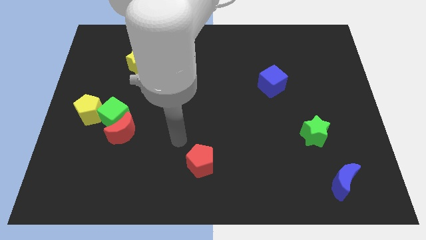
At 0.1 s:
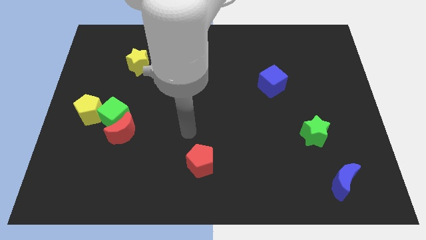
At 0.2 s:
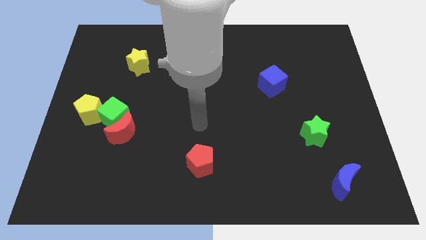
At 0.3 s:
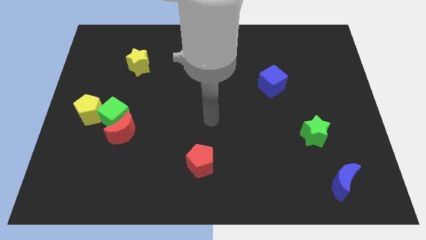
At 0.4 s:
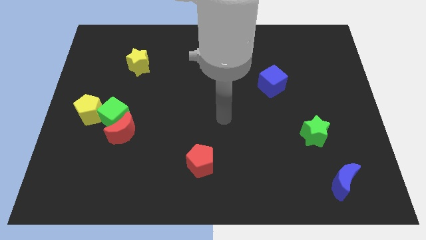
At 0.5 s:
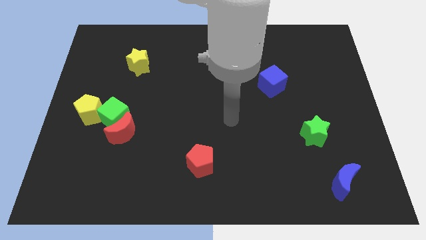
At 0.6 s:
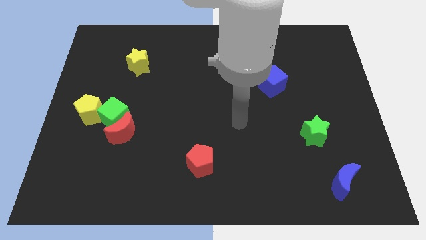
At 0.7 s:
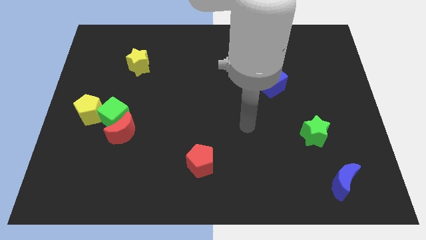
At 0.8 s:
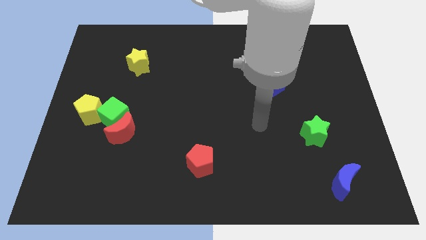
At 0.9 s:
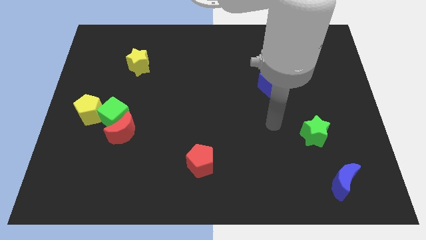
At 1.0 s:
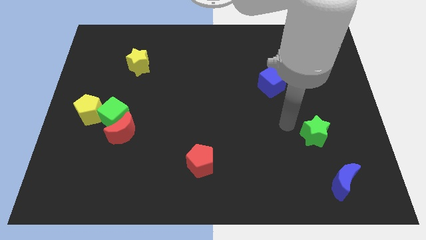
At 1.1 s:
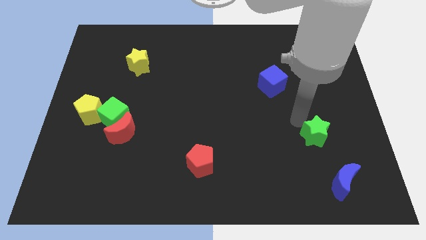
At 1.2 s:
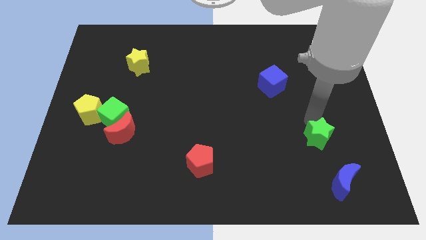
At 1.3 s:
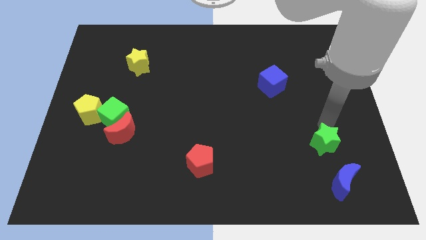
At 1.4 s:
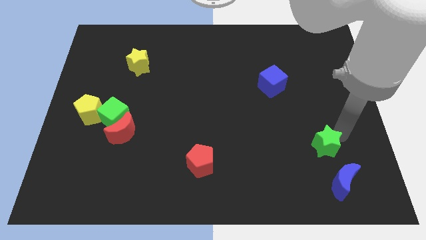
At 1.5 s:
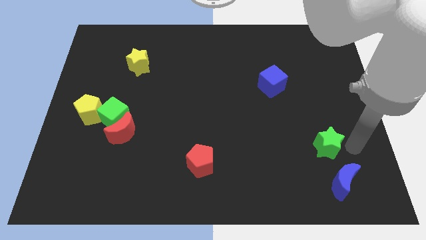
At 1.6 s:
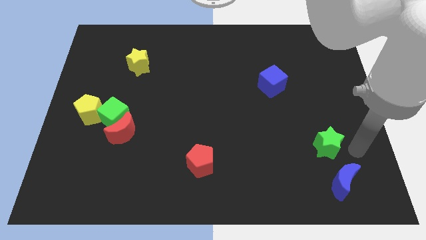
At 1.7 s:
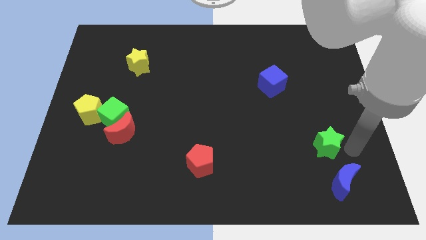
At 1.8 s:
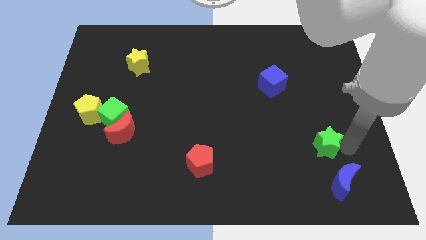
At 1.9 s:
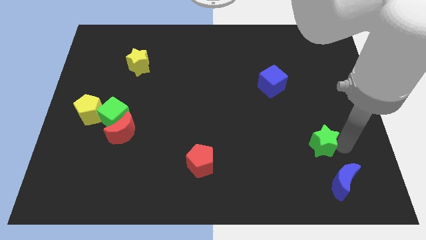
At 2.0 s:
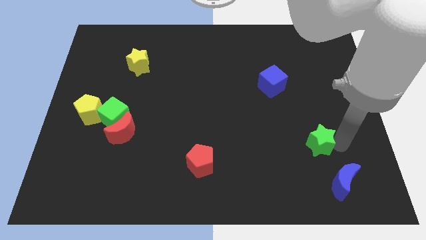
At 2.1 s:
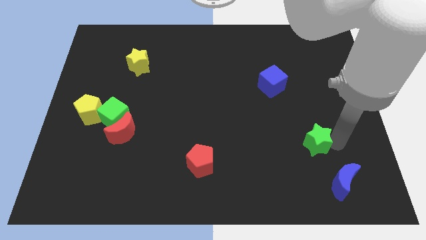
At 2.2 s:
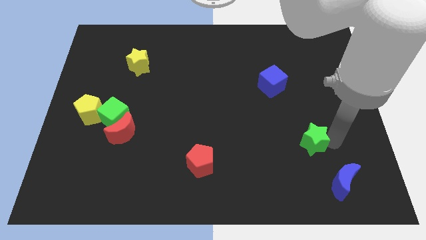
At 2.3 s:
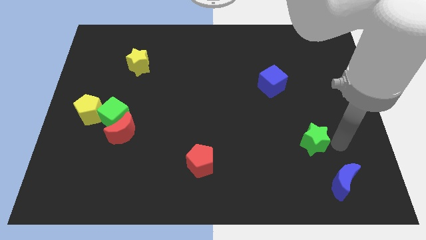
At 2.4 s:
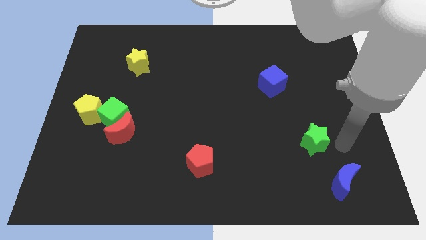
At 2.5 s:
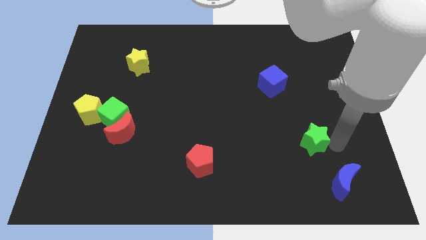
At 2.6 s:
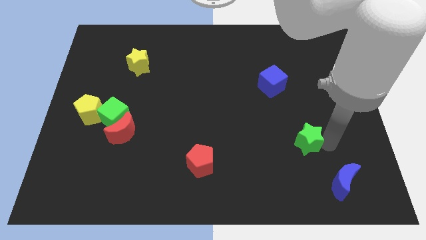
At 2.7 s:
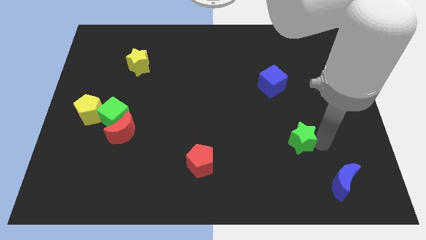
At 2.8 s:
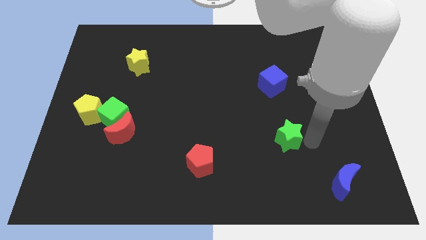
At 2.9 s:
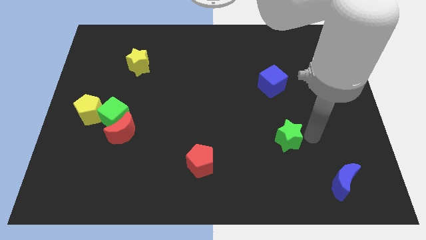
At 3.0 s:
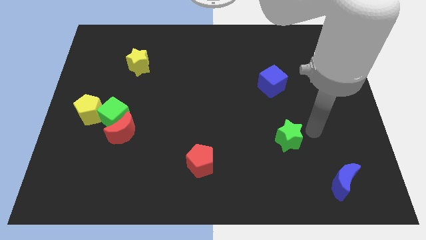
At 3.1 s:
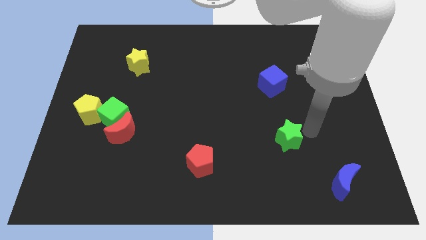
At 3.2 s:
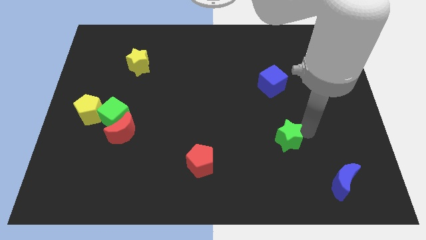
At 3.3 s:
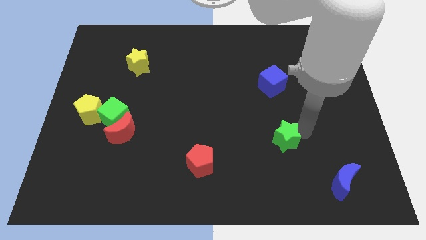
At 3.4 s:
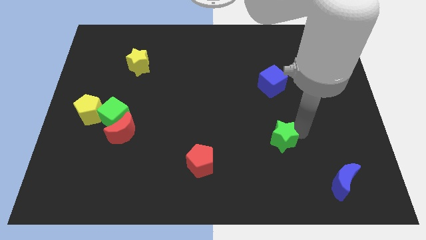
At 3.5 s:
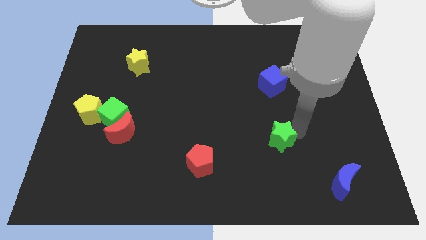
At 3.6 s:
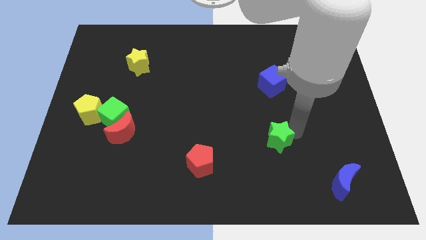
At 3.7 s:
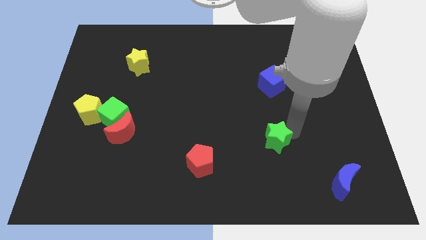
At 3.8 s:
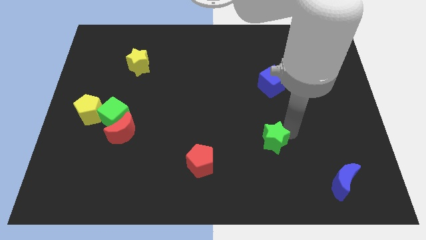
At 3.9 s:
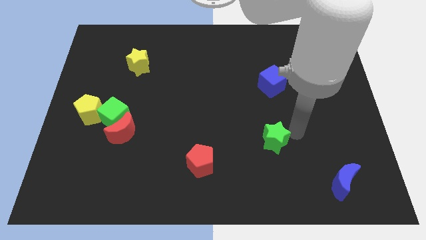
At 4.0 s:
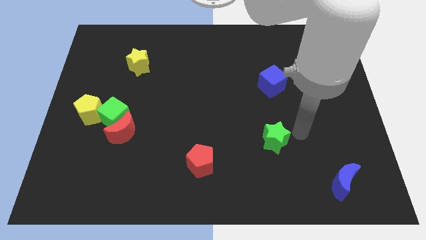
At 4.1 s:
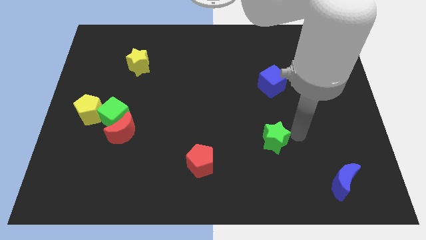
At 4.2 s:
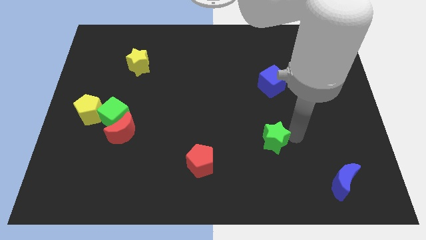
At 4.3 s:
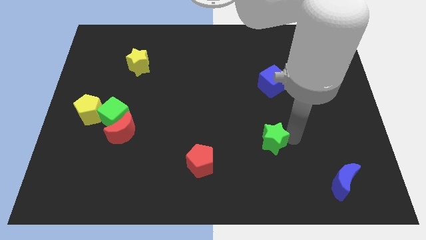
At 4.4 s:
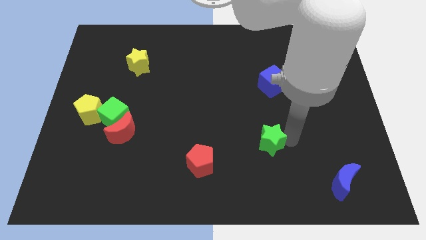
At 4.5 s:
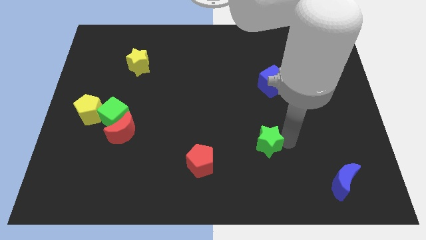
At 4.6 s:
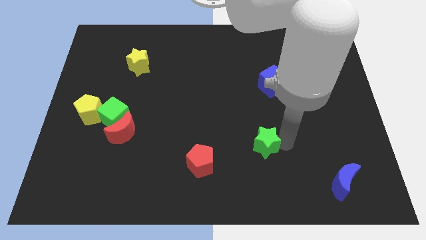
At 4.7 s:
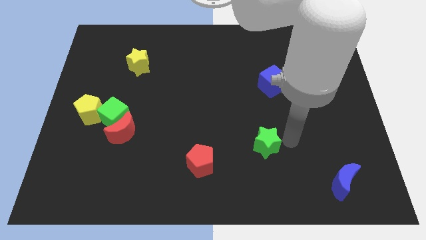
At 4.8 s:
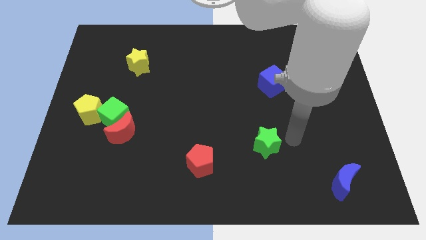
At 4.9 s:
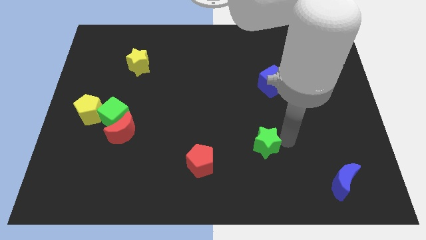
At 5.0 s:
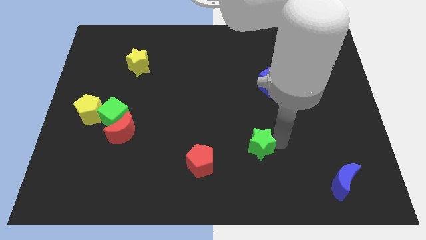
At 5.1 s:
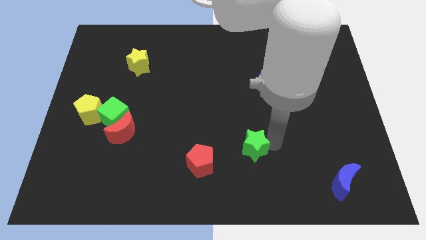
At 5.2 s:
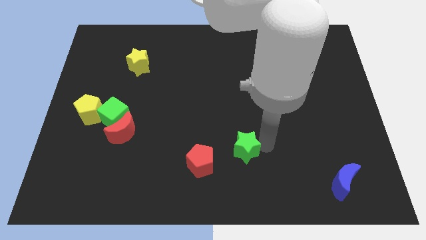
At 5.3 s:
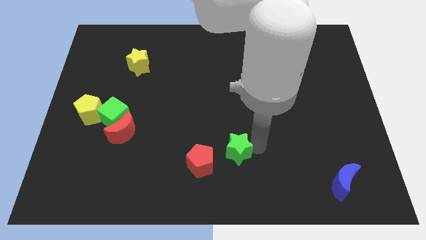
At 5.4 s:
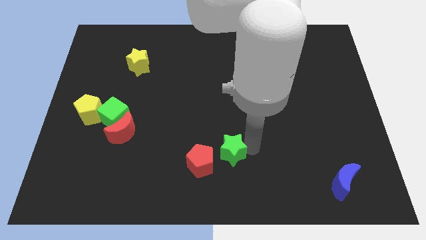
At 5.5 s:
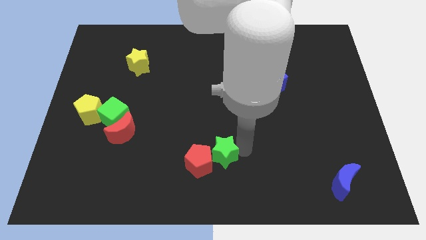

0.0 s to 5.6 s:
put the green star towards the red pentagon

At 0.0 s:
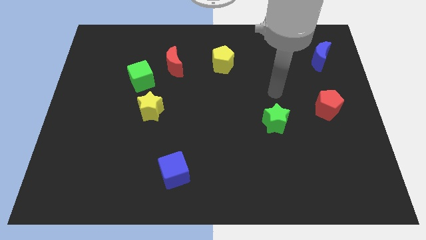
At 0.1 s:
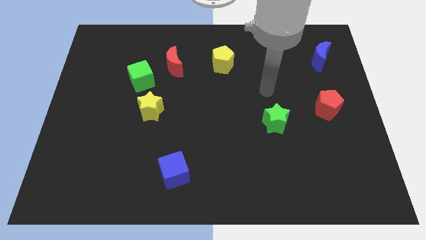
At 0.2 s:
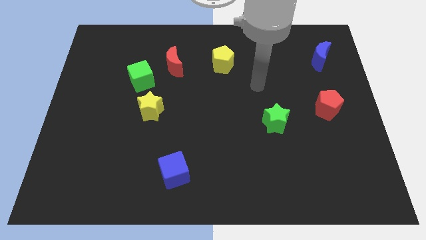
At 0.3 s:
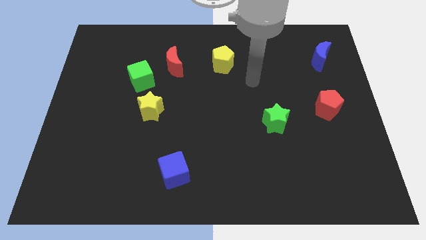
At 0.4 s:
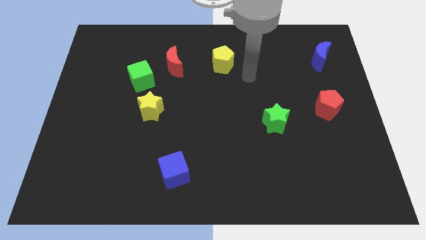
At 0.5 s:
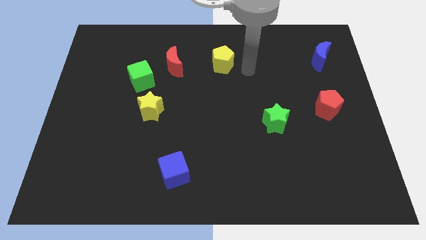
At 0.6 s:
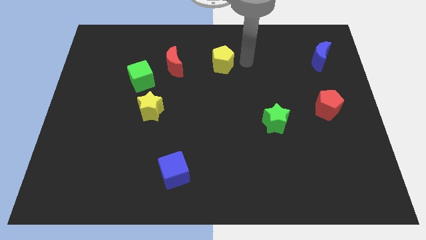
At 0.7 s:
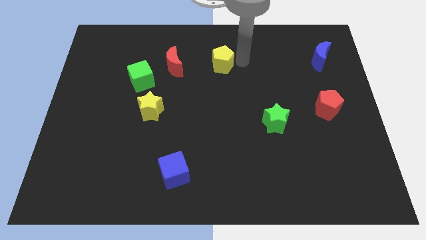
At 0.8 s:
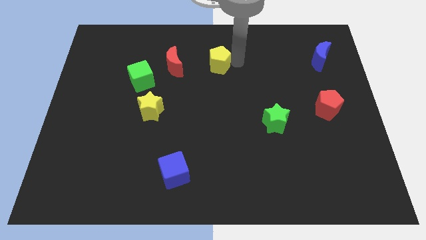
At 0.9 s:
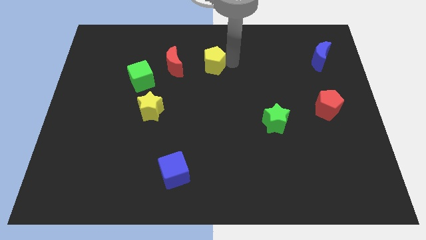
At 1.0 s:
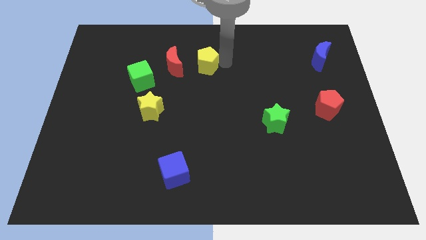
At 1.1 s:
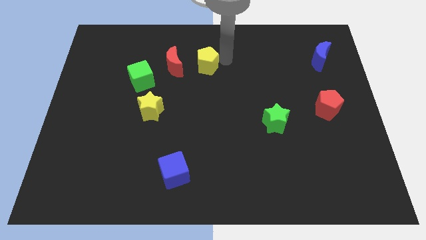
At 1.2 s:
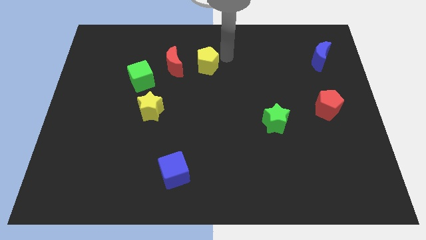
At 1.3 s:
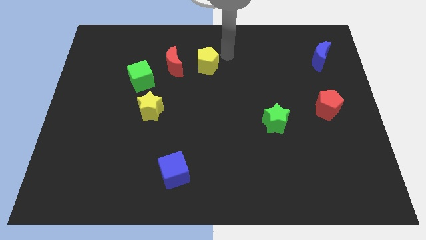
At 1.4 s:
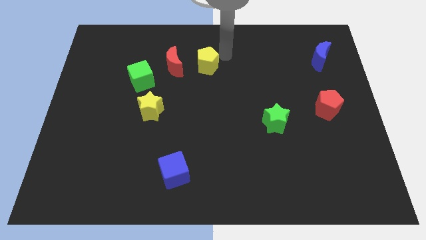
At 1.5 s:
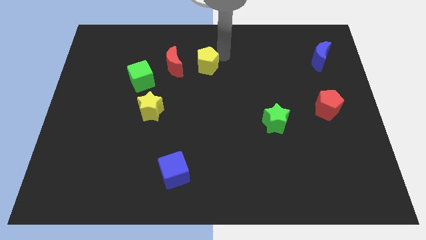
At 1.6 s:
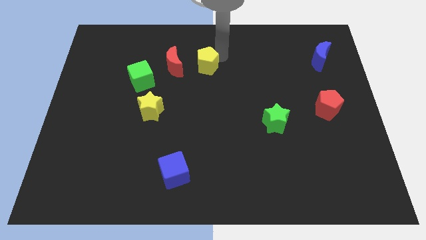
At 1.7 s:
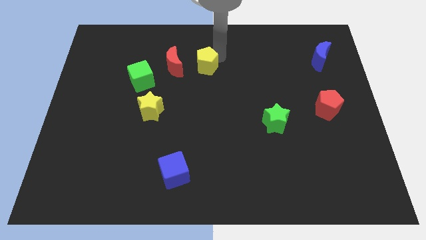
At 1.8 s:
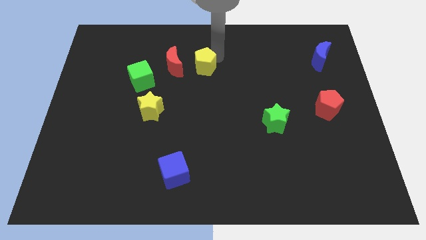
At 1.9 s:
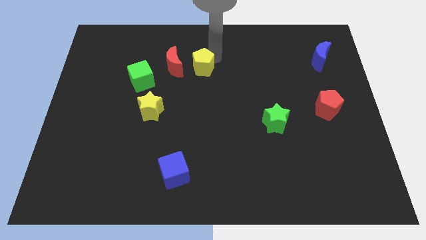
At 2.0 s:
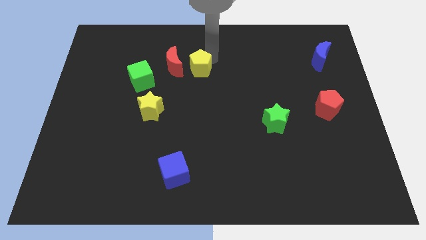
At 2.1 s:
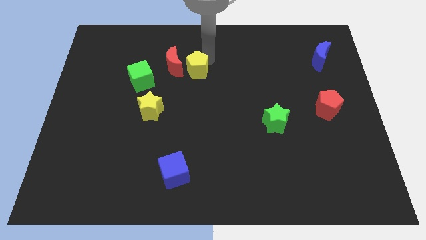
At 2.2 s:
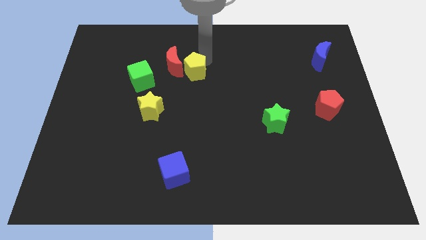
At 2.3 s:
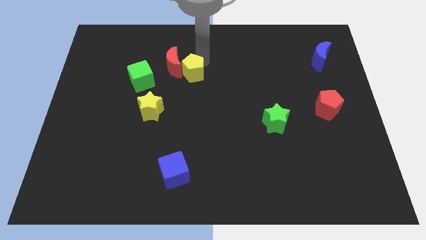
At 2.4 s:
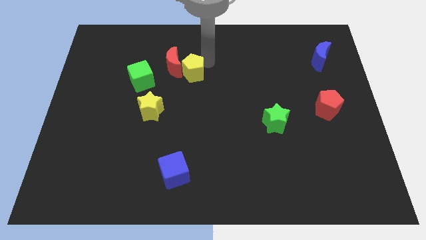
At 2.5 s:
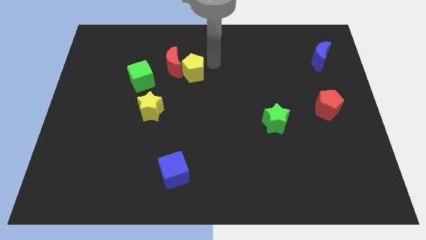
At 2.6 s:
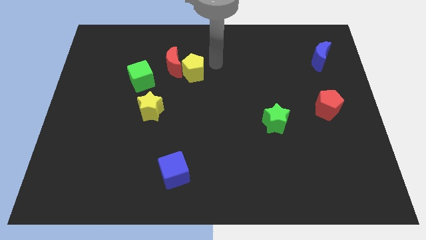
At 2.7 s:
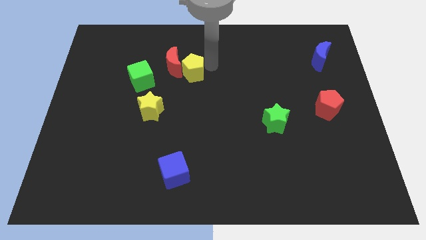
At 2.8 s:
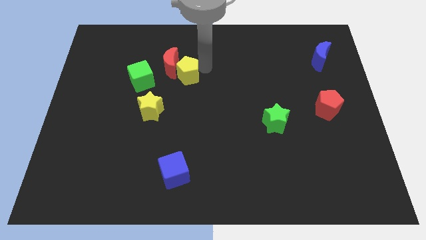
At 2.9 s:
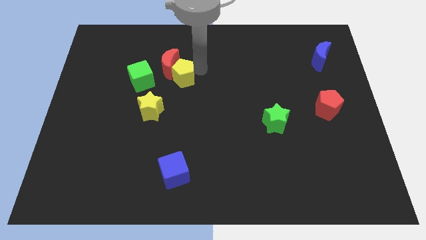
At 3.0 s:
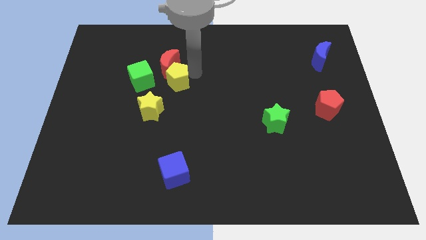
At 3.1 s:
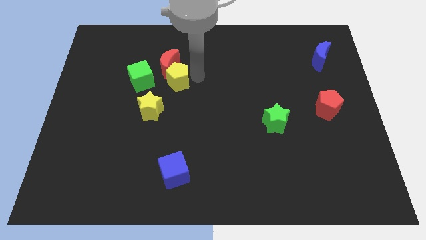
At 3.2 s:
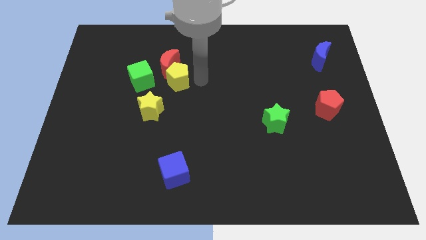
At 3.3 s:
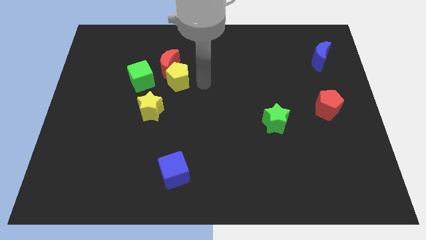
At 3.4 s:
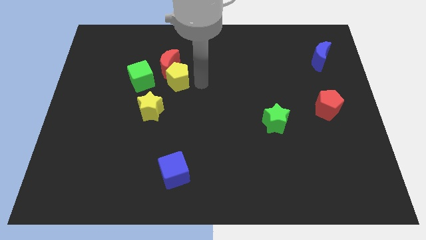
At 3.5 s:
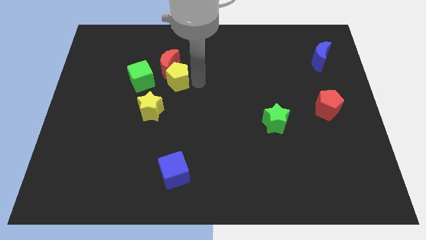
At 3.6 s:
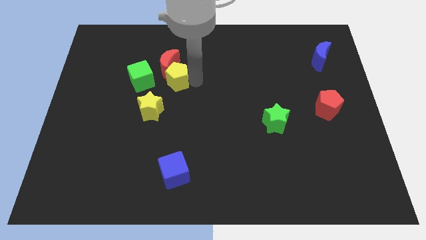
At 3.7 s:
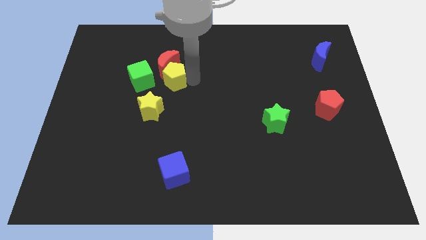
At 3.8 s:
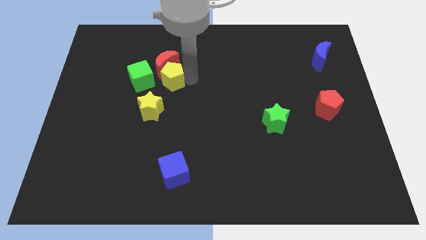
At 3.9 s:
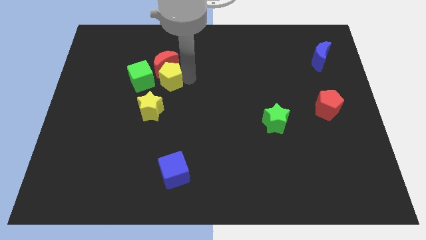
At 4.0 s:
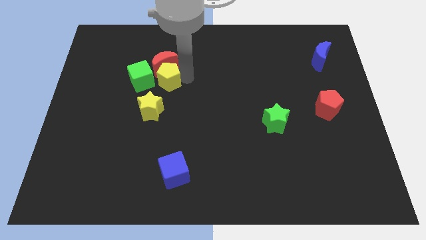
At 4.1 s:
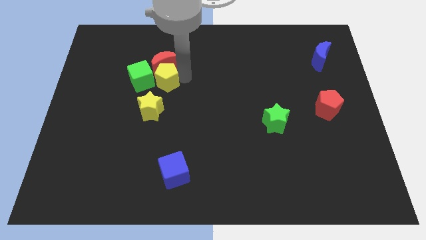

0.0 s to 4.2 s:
slide the yellow pentagon next to the green cube
